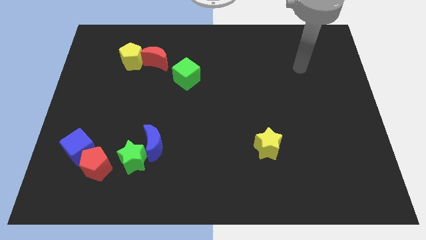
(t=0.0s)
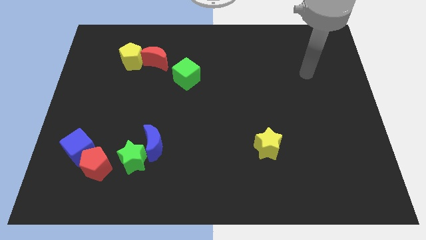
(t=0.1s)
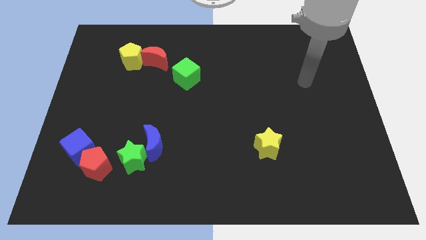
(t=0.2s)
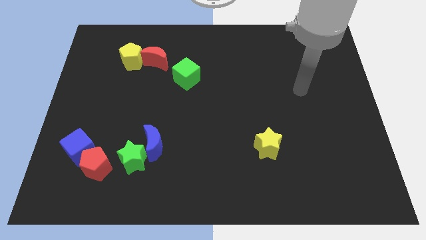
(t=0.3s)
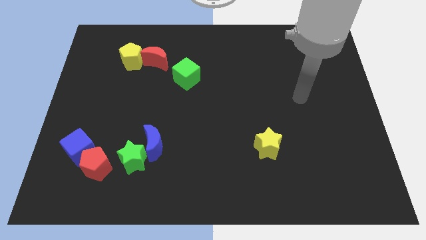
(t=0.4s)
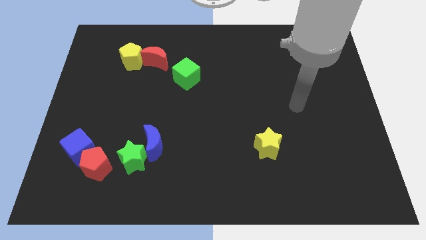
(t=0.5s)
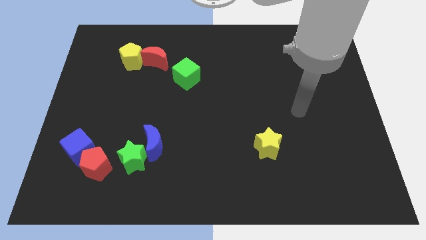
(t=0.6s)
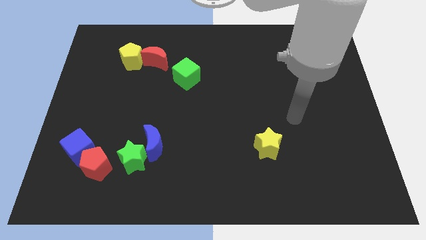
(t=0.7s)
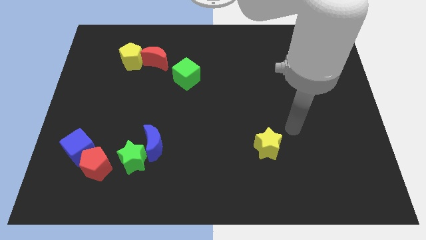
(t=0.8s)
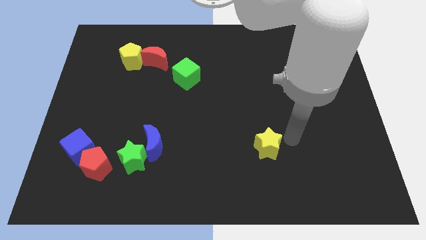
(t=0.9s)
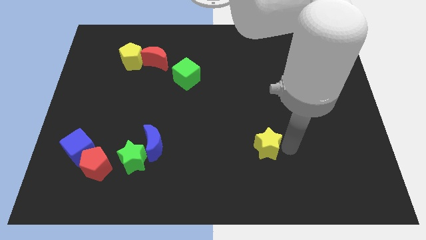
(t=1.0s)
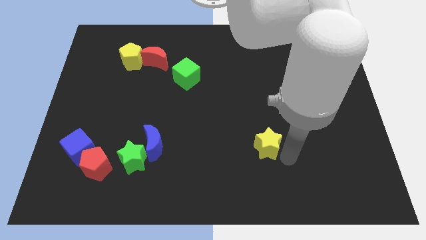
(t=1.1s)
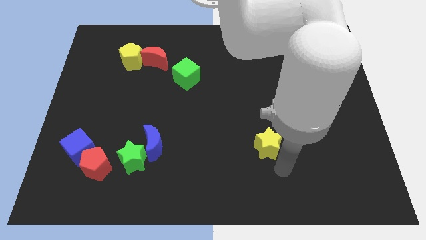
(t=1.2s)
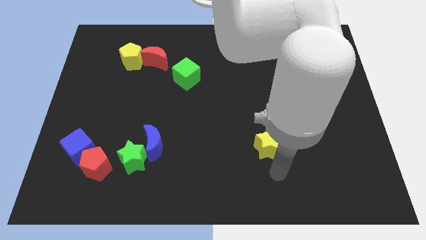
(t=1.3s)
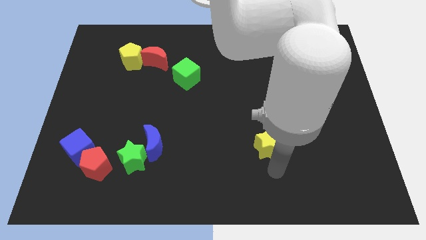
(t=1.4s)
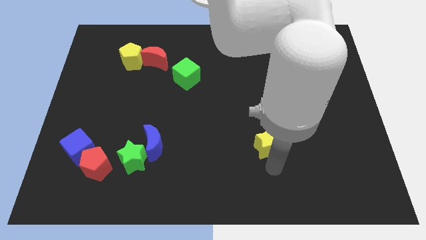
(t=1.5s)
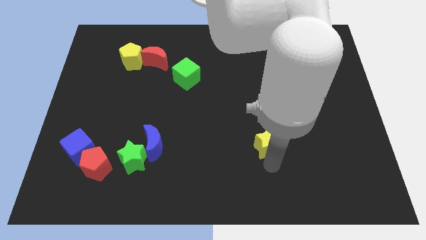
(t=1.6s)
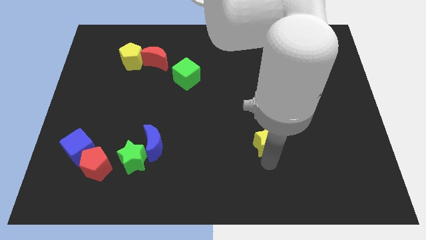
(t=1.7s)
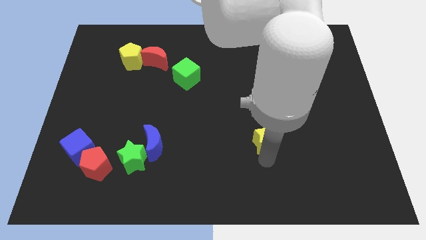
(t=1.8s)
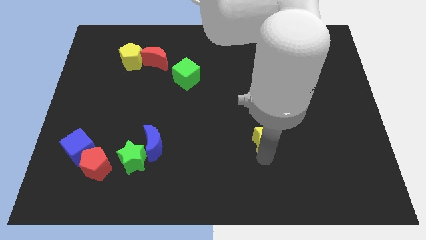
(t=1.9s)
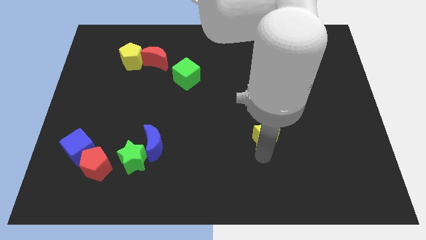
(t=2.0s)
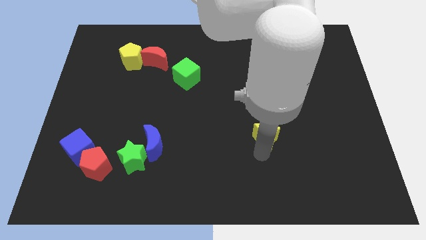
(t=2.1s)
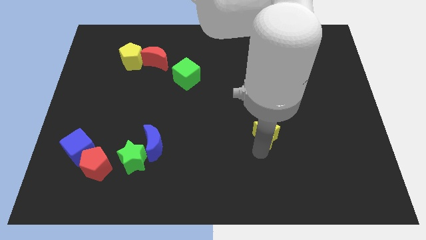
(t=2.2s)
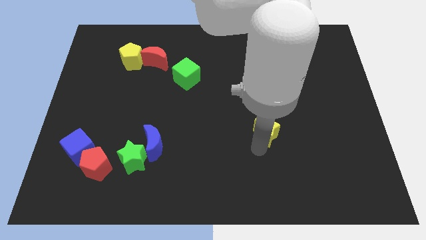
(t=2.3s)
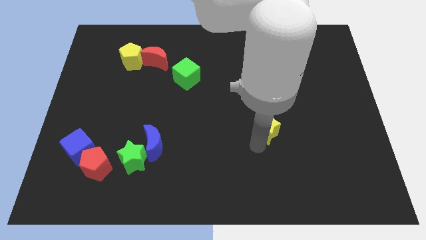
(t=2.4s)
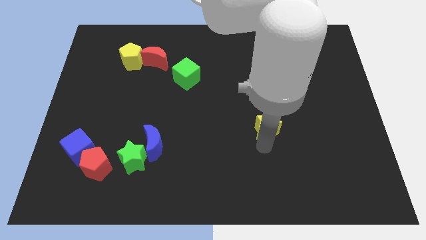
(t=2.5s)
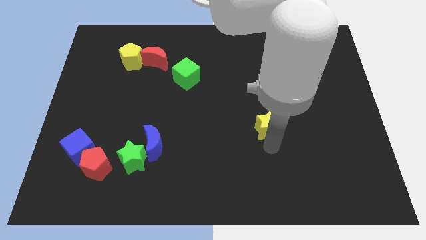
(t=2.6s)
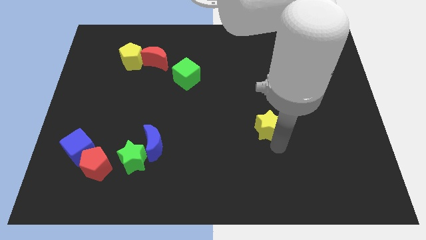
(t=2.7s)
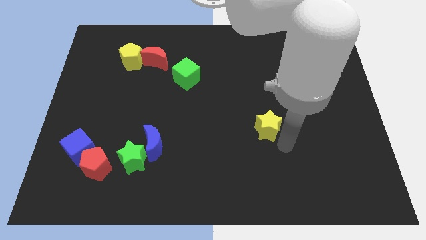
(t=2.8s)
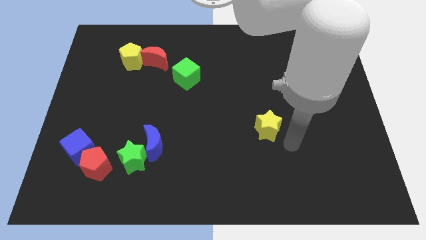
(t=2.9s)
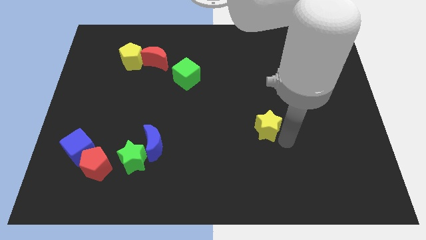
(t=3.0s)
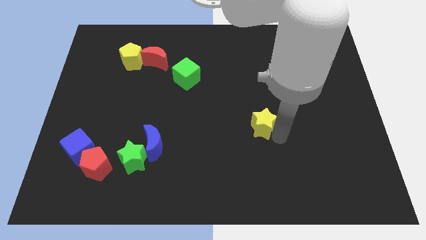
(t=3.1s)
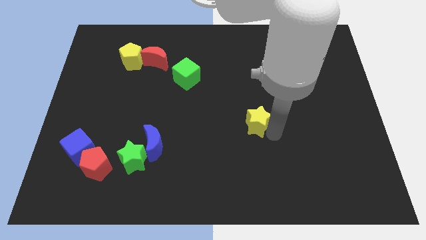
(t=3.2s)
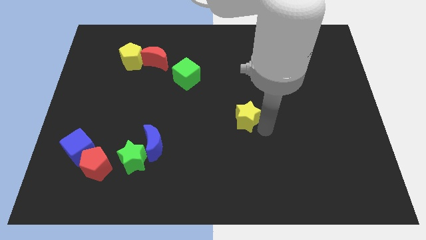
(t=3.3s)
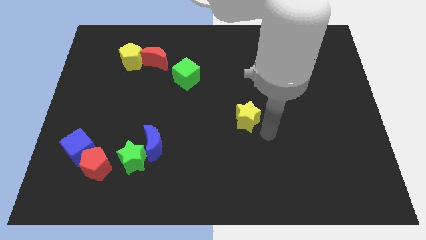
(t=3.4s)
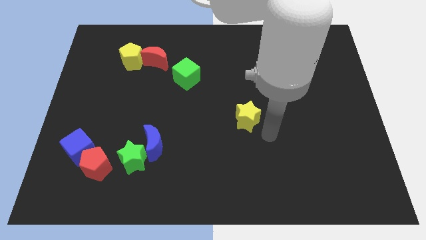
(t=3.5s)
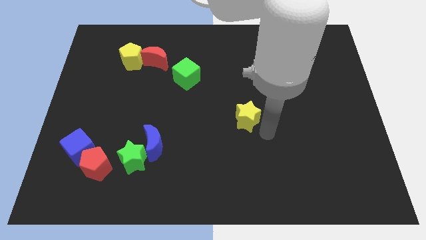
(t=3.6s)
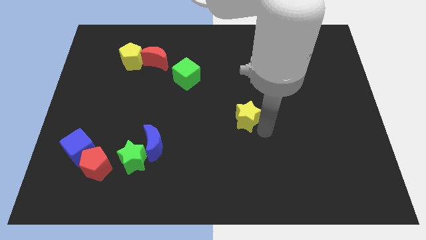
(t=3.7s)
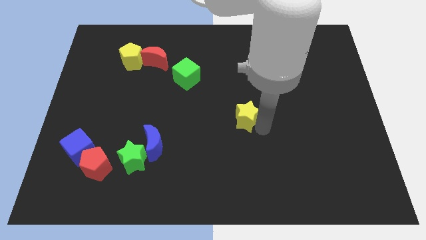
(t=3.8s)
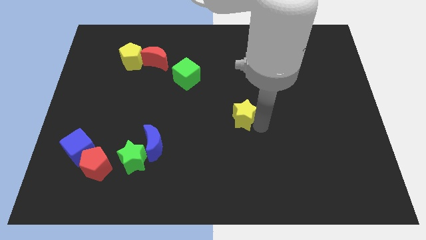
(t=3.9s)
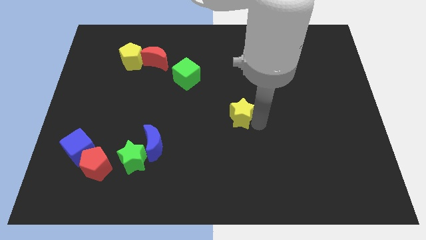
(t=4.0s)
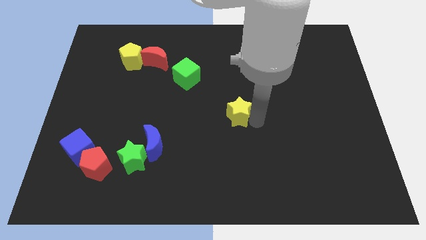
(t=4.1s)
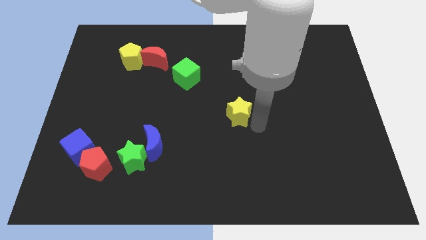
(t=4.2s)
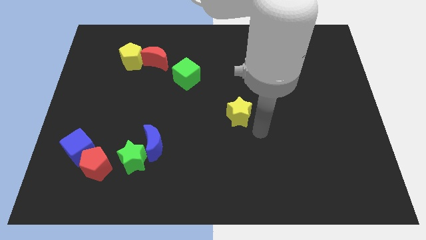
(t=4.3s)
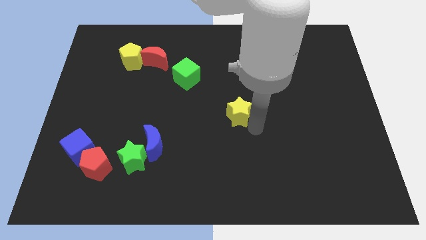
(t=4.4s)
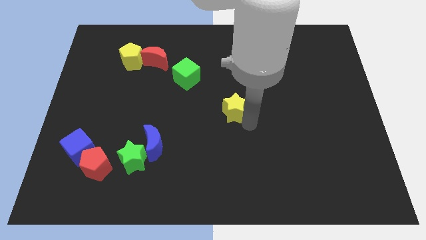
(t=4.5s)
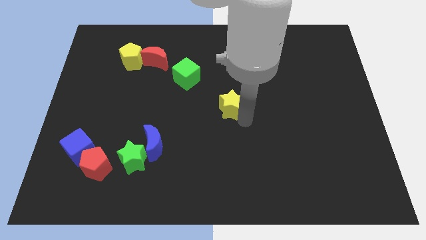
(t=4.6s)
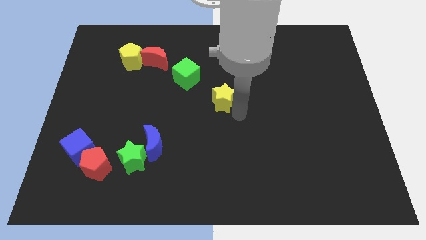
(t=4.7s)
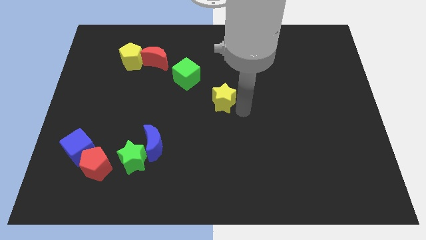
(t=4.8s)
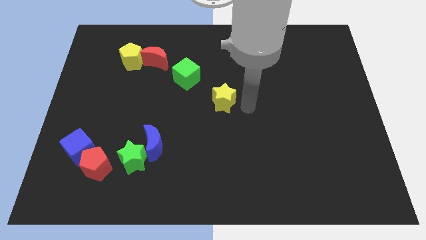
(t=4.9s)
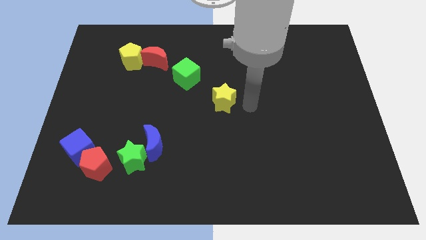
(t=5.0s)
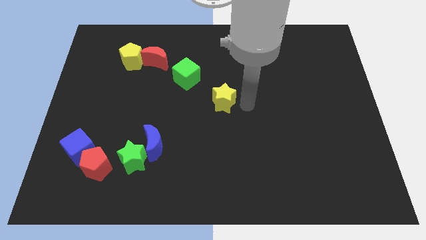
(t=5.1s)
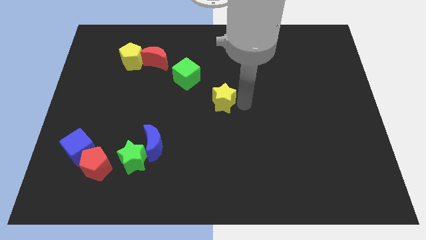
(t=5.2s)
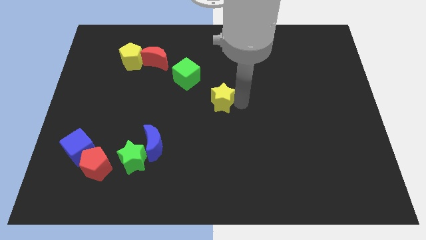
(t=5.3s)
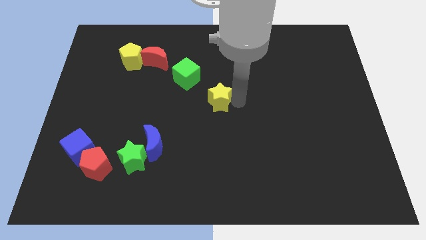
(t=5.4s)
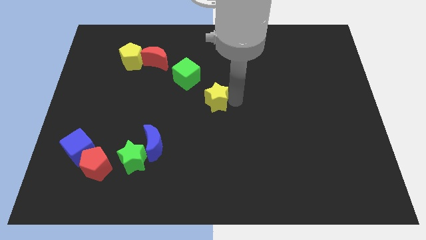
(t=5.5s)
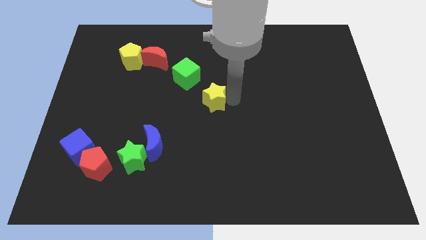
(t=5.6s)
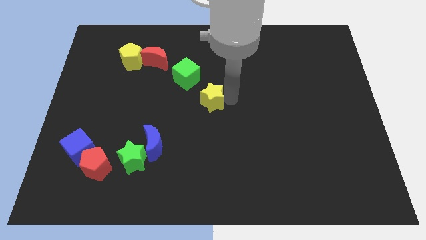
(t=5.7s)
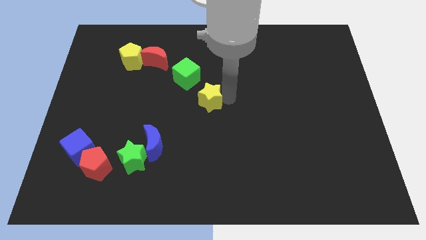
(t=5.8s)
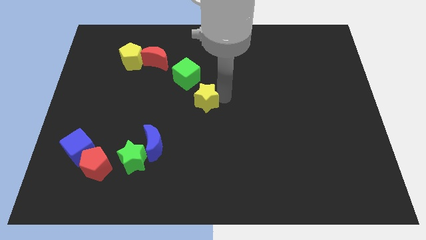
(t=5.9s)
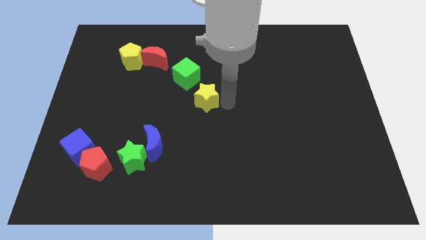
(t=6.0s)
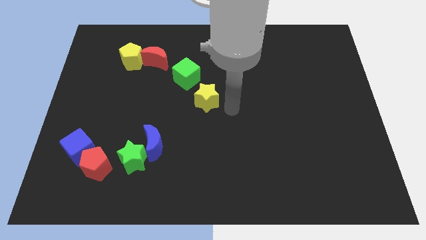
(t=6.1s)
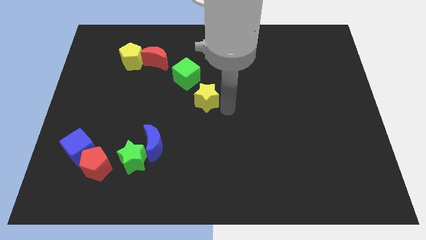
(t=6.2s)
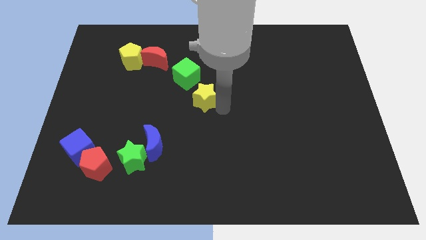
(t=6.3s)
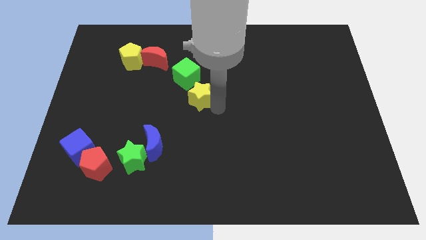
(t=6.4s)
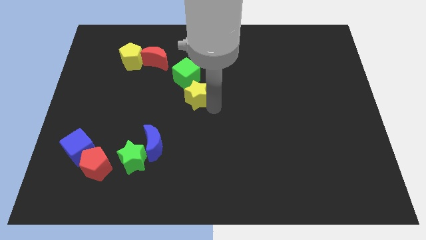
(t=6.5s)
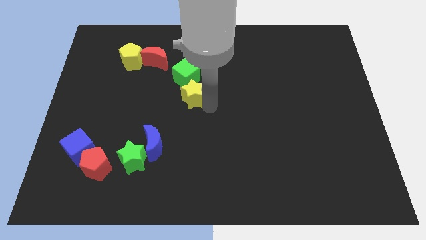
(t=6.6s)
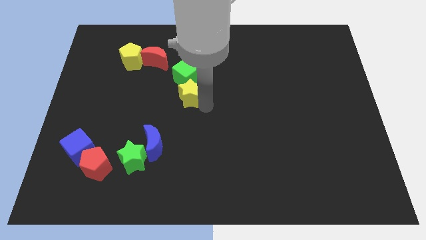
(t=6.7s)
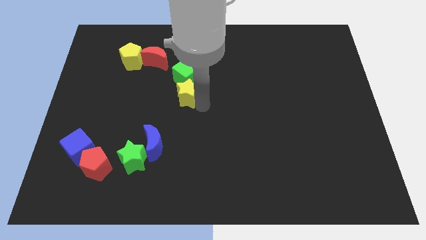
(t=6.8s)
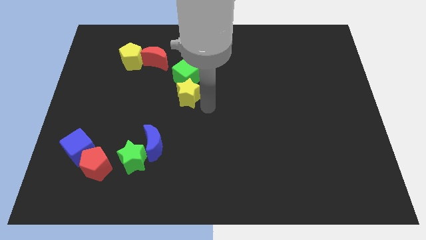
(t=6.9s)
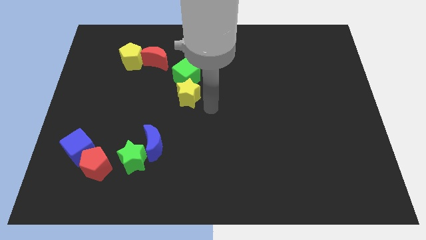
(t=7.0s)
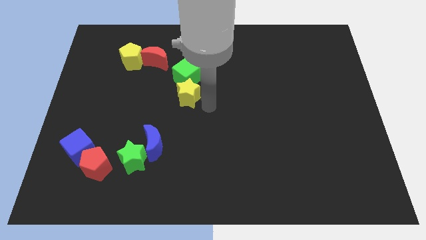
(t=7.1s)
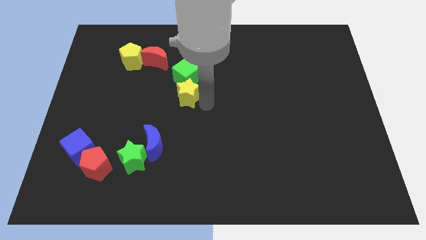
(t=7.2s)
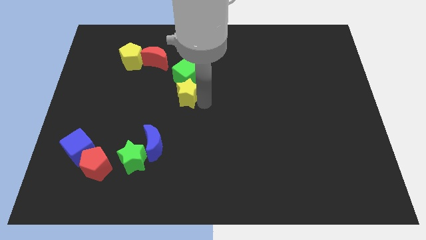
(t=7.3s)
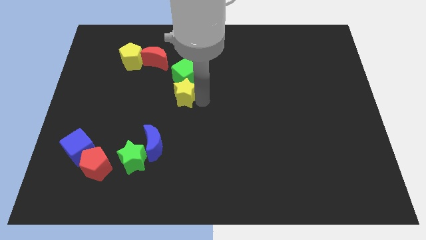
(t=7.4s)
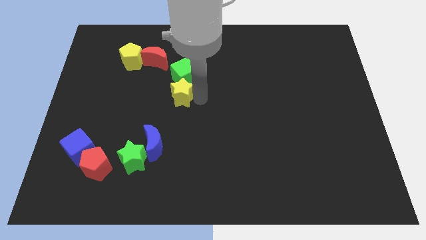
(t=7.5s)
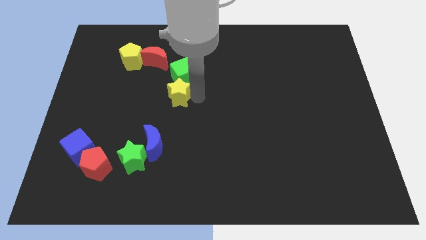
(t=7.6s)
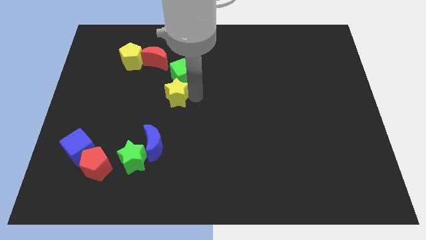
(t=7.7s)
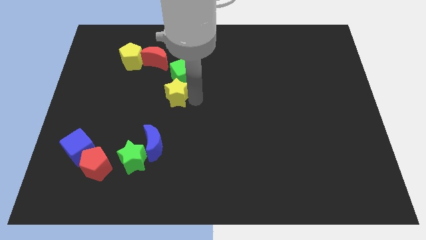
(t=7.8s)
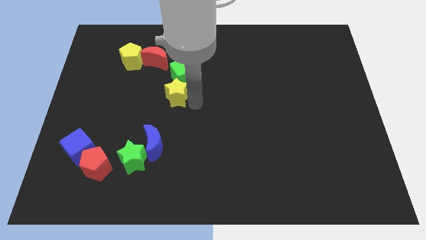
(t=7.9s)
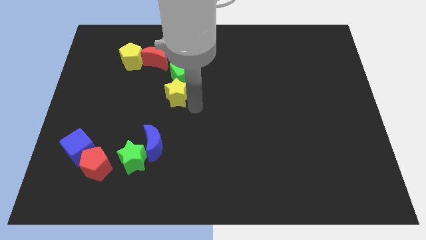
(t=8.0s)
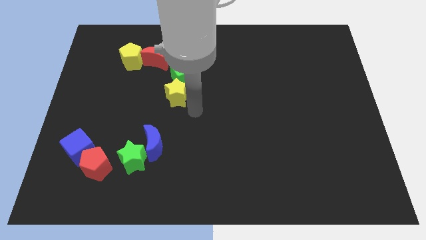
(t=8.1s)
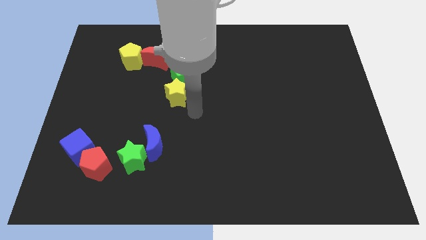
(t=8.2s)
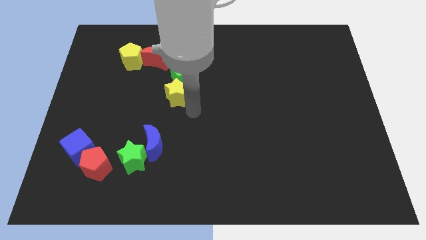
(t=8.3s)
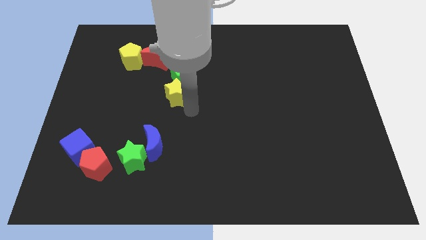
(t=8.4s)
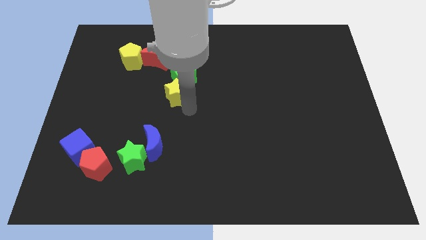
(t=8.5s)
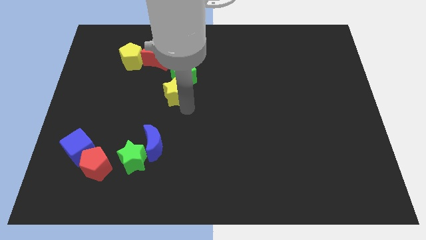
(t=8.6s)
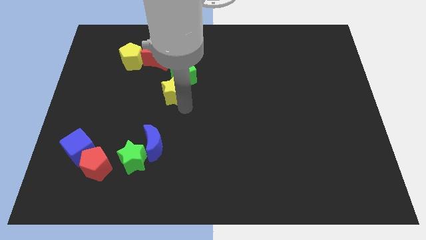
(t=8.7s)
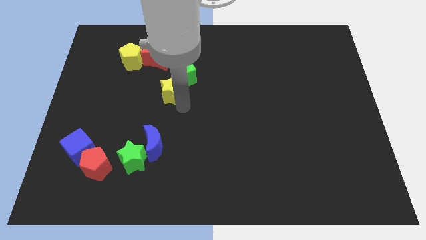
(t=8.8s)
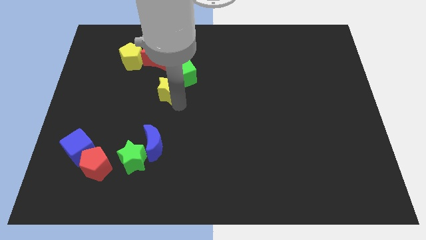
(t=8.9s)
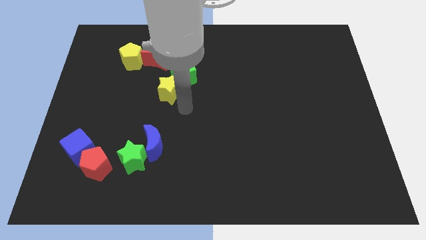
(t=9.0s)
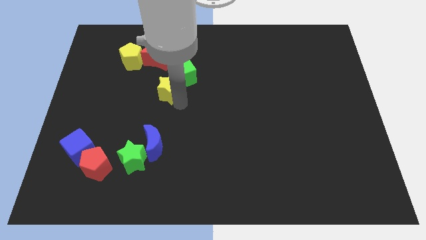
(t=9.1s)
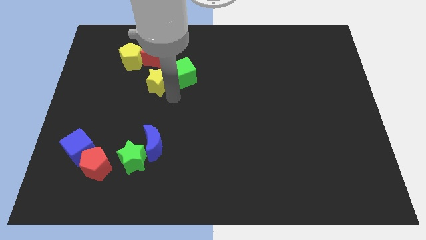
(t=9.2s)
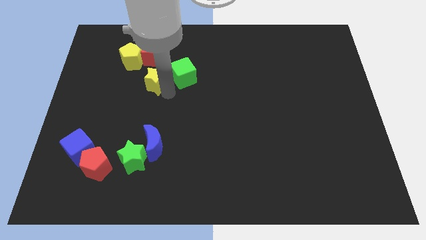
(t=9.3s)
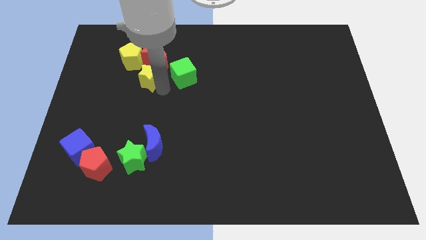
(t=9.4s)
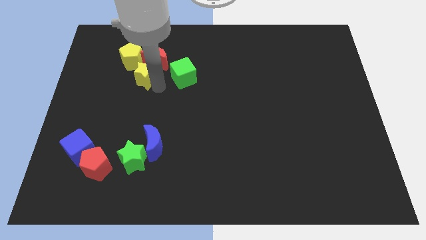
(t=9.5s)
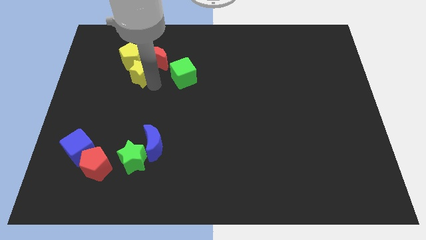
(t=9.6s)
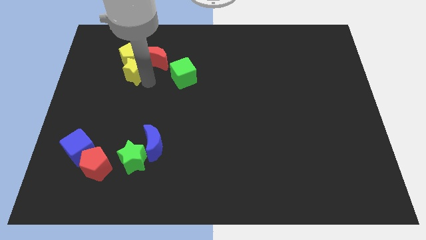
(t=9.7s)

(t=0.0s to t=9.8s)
slide the yellow star next to the yellow pentagon
